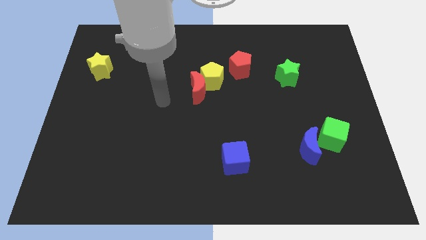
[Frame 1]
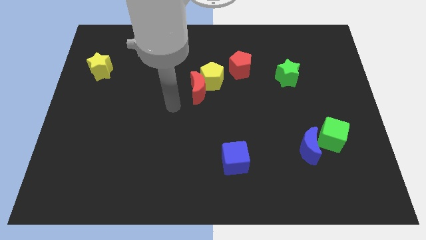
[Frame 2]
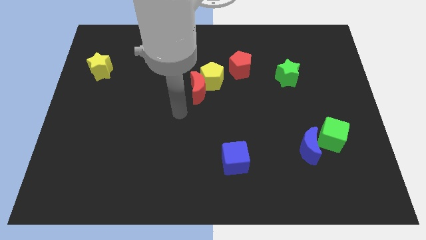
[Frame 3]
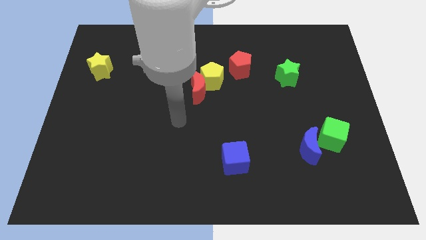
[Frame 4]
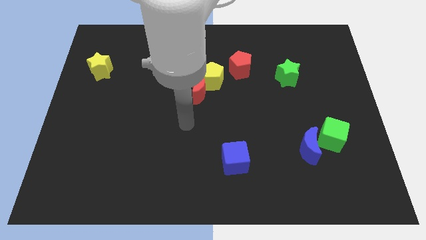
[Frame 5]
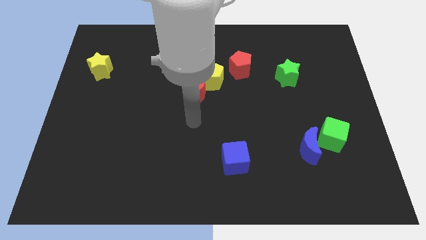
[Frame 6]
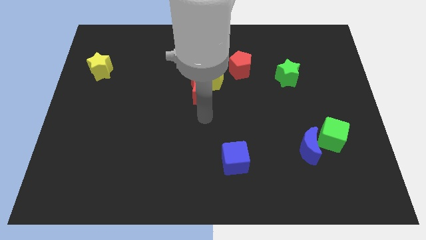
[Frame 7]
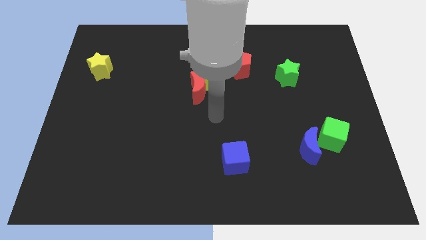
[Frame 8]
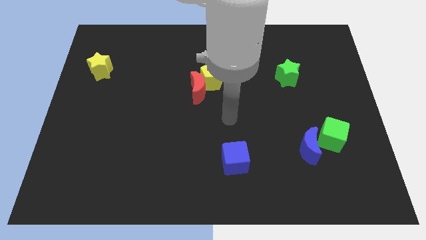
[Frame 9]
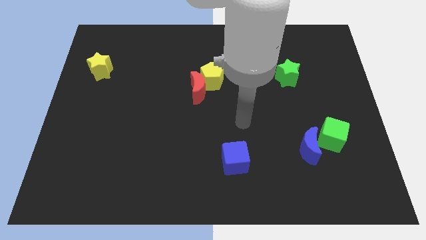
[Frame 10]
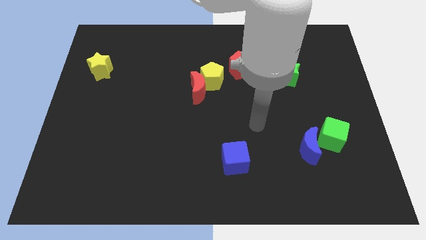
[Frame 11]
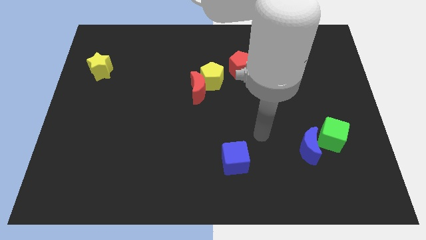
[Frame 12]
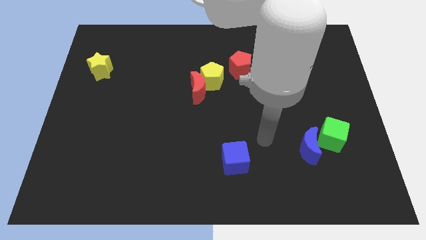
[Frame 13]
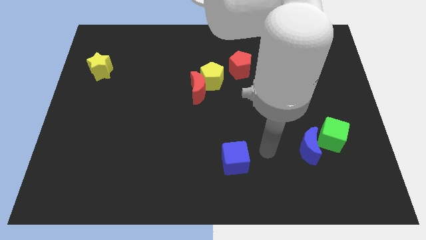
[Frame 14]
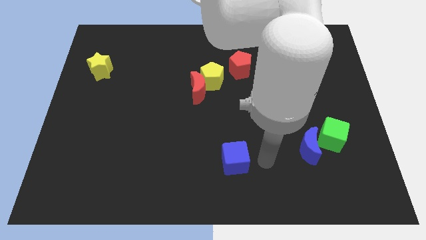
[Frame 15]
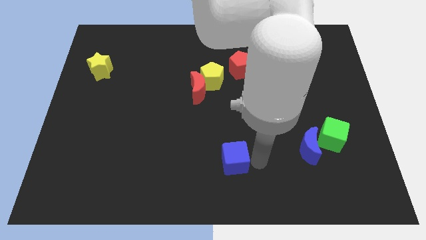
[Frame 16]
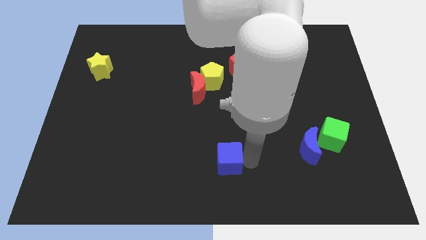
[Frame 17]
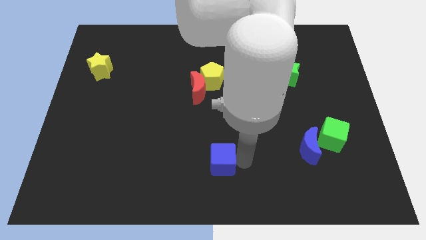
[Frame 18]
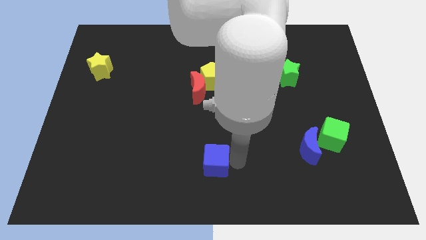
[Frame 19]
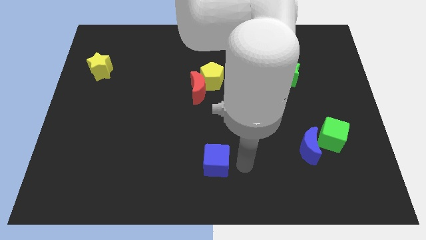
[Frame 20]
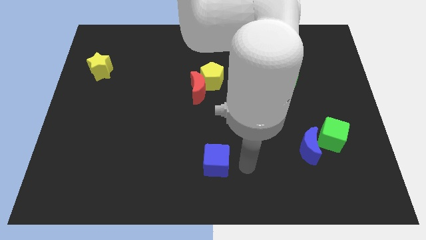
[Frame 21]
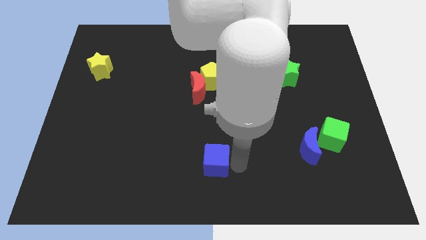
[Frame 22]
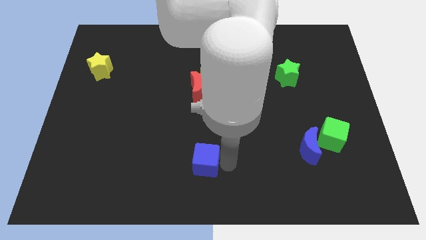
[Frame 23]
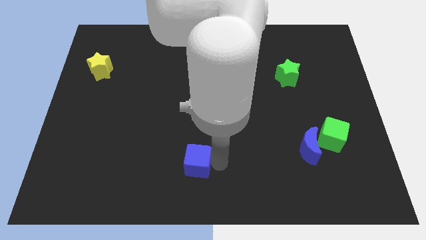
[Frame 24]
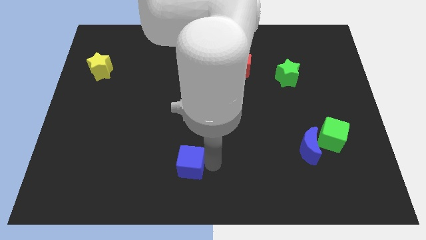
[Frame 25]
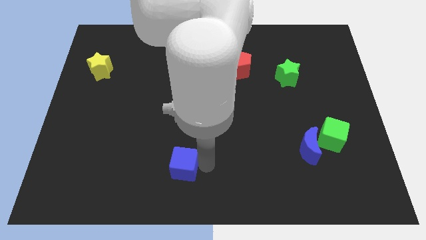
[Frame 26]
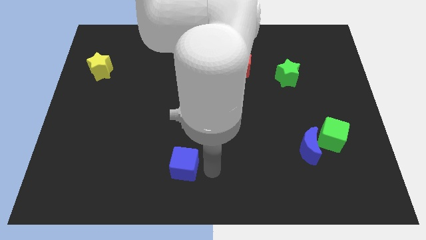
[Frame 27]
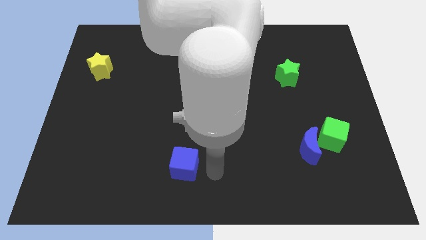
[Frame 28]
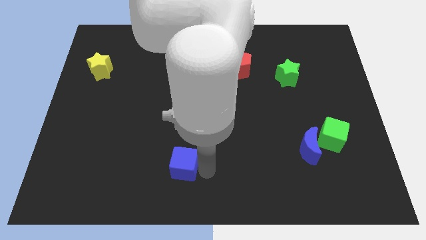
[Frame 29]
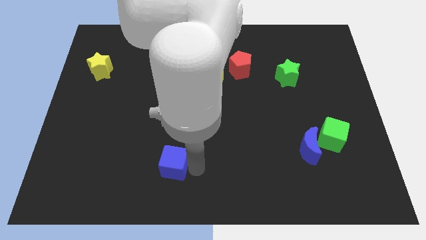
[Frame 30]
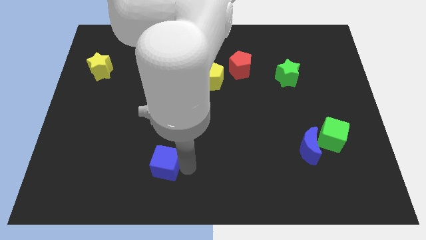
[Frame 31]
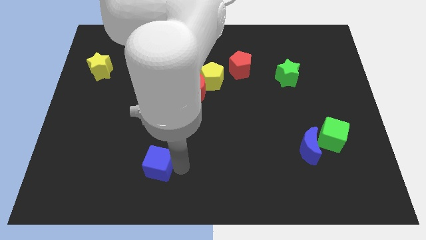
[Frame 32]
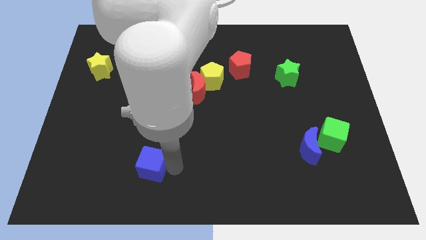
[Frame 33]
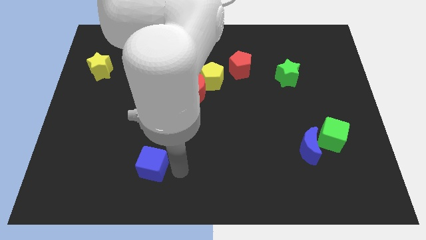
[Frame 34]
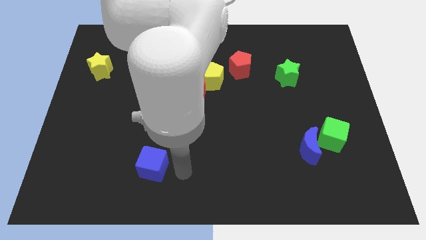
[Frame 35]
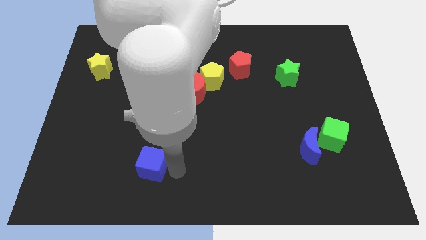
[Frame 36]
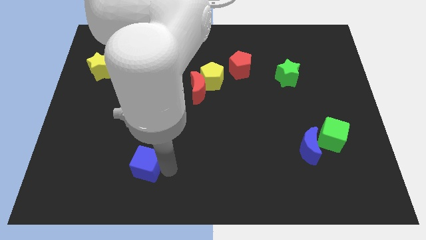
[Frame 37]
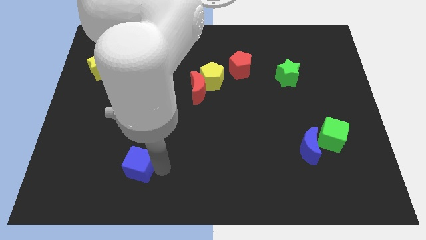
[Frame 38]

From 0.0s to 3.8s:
move the blue cube to the left

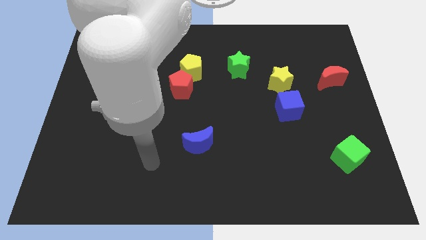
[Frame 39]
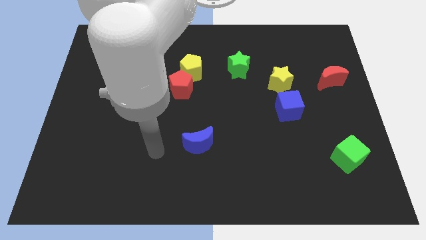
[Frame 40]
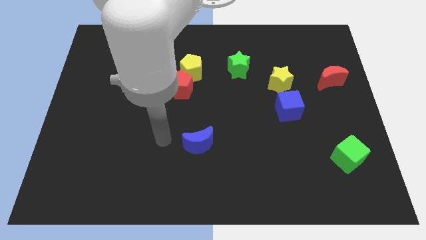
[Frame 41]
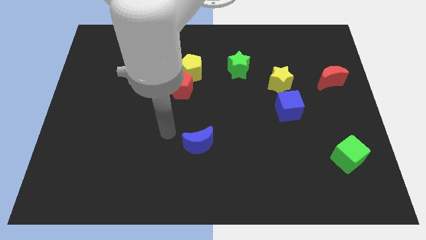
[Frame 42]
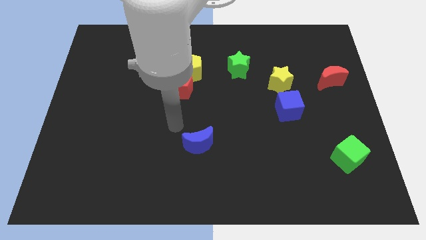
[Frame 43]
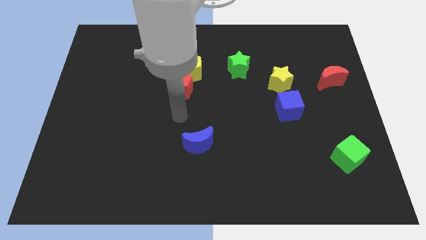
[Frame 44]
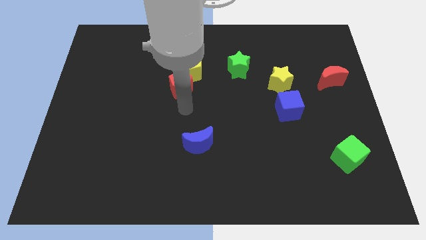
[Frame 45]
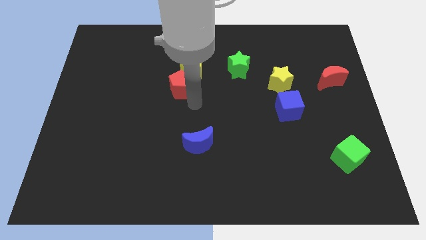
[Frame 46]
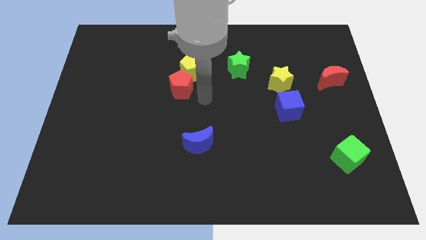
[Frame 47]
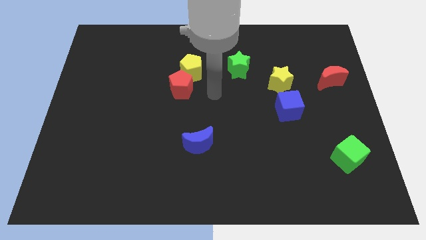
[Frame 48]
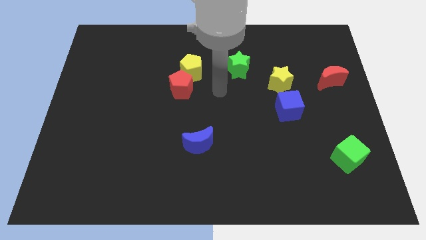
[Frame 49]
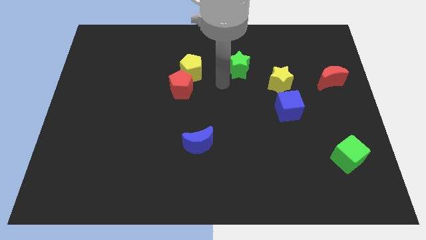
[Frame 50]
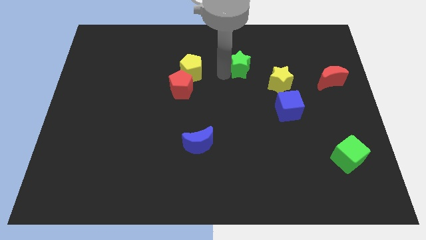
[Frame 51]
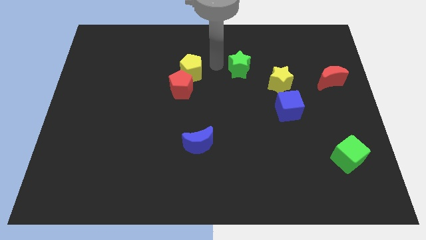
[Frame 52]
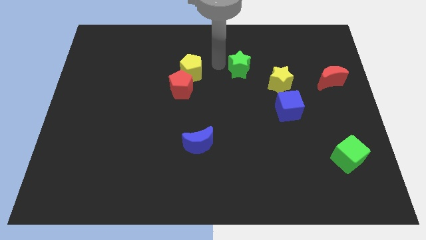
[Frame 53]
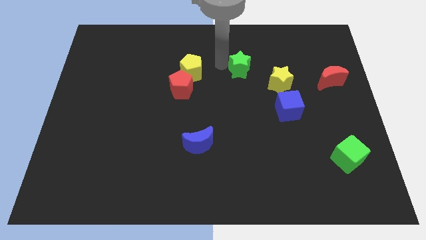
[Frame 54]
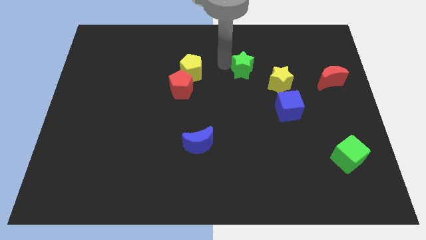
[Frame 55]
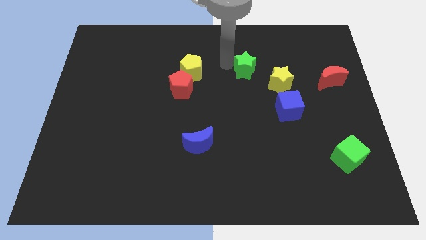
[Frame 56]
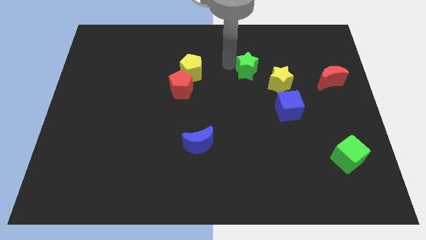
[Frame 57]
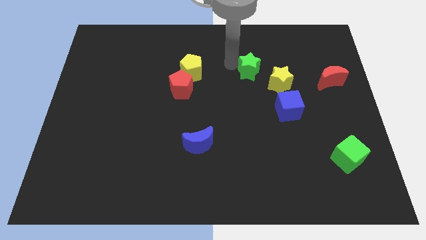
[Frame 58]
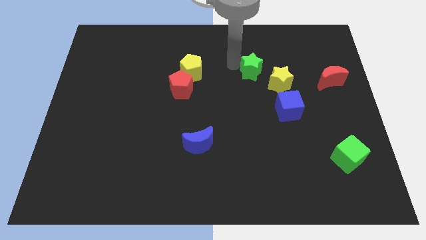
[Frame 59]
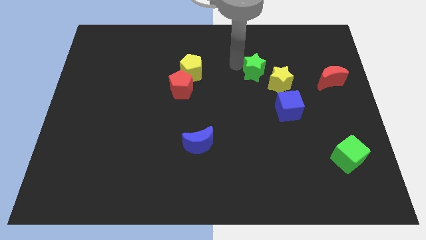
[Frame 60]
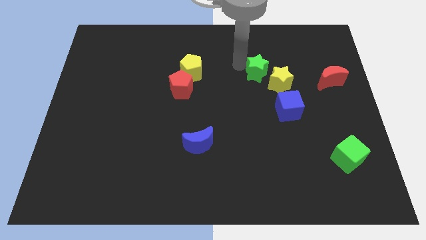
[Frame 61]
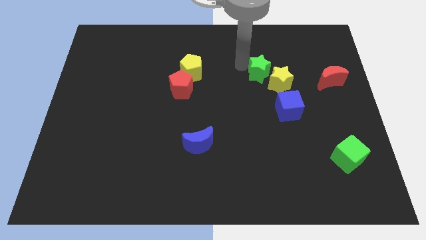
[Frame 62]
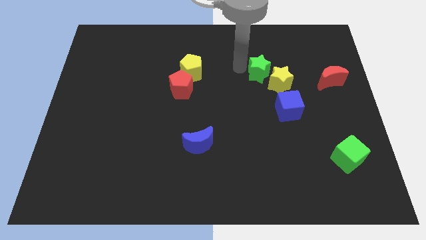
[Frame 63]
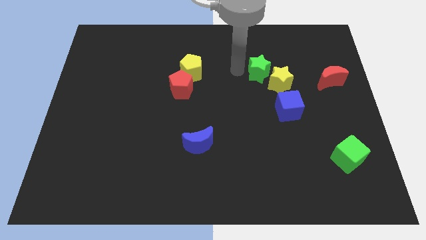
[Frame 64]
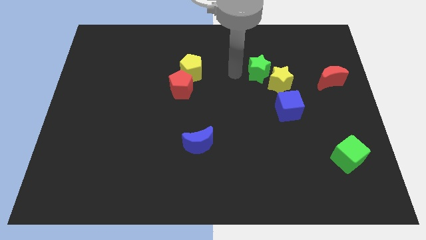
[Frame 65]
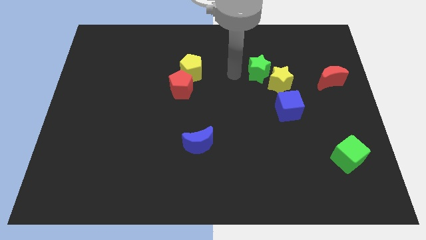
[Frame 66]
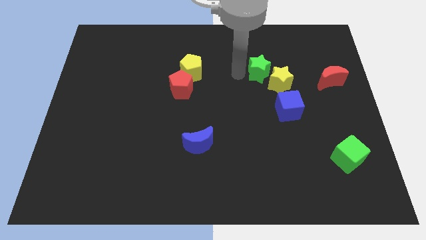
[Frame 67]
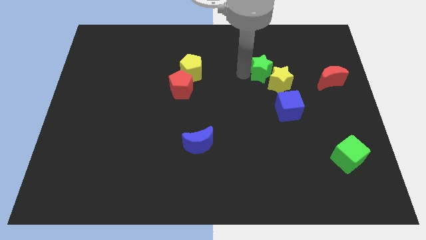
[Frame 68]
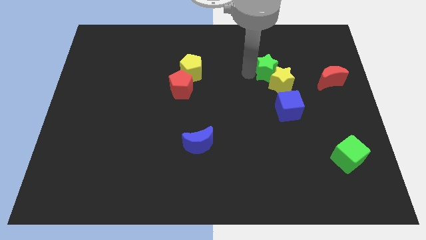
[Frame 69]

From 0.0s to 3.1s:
slightly push the green star to the right

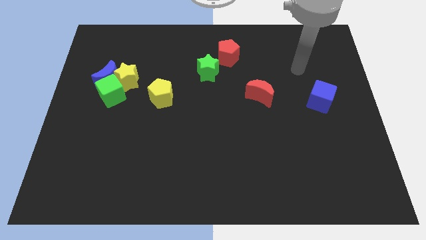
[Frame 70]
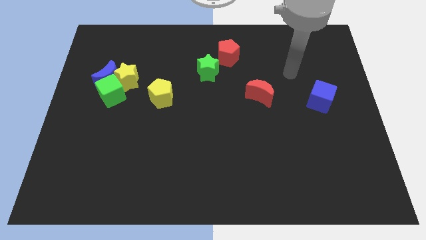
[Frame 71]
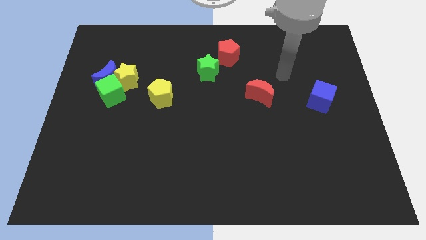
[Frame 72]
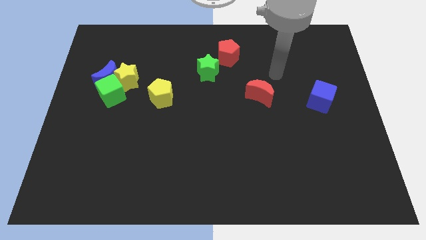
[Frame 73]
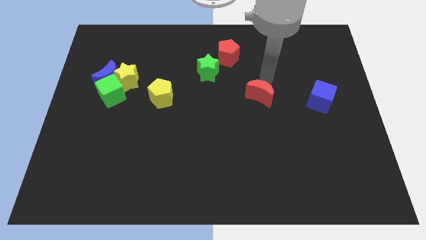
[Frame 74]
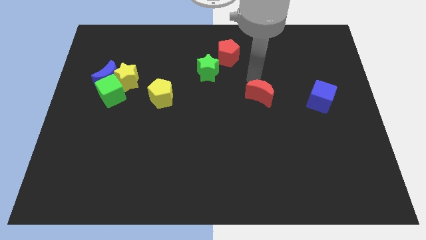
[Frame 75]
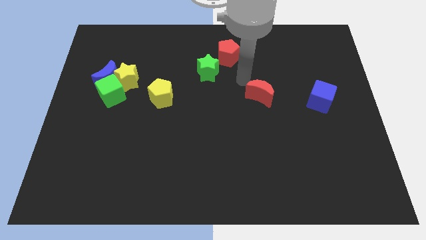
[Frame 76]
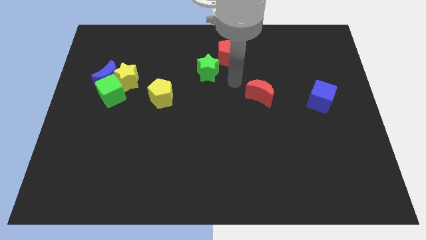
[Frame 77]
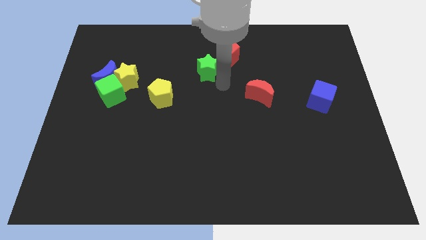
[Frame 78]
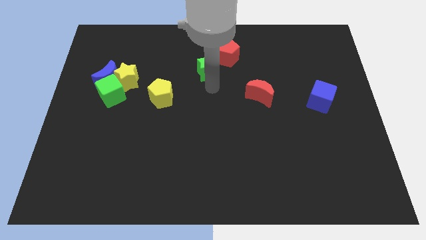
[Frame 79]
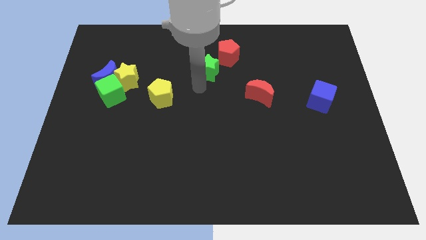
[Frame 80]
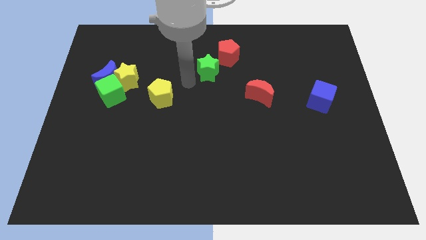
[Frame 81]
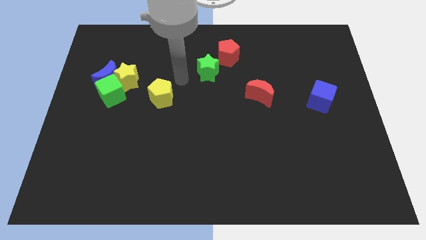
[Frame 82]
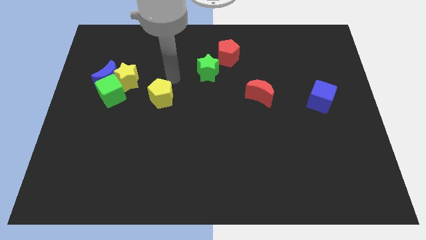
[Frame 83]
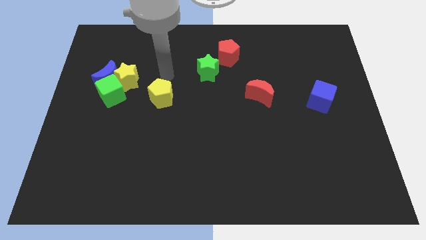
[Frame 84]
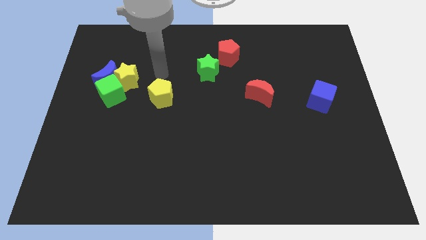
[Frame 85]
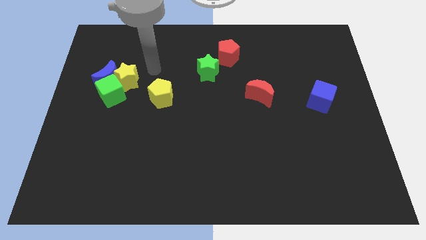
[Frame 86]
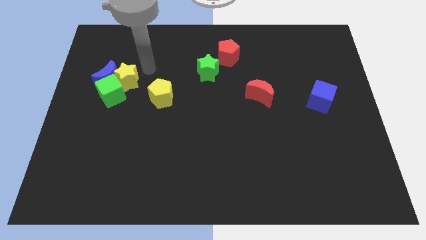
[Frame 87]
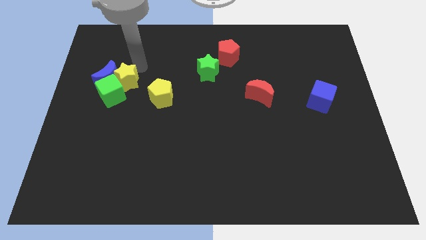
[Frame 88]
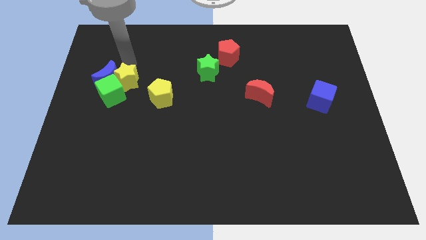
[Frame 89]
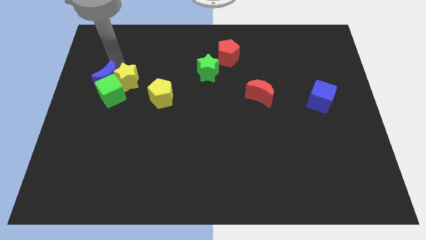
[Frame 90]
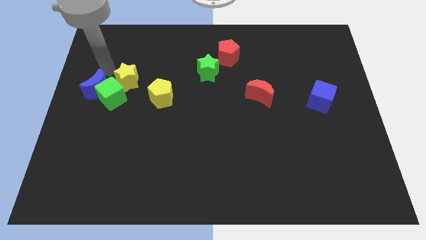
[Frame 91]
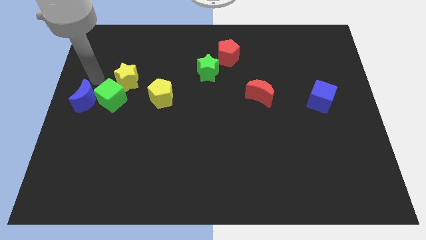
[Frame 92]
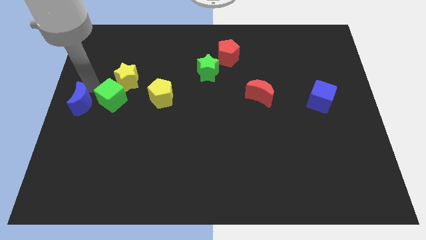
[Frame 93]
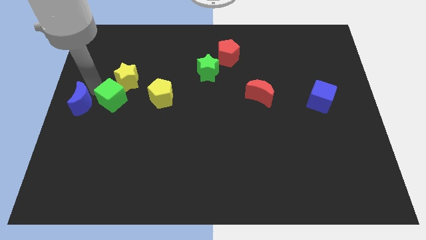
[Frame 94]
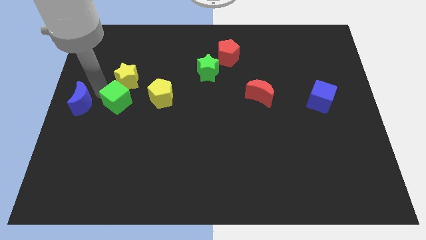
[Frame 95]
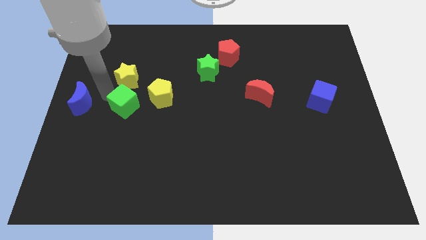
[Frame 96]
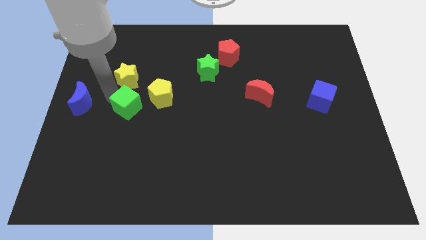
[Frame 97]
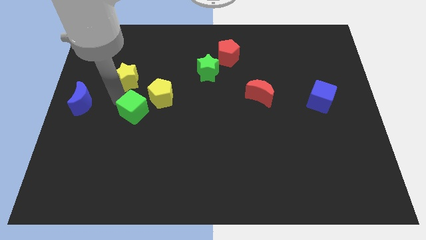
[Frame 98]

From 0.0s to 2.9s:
move the green cube diagonally downwards and to the right a bit
